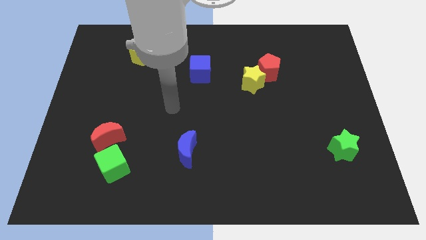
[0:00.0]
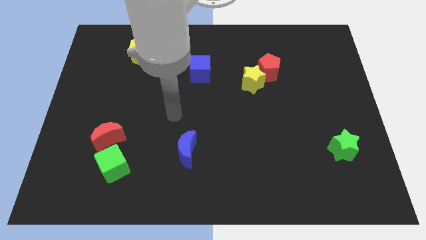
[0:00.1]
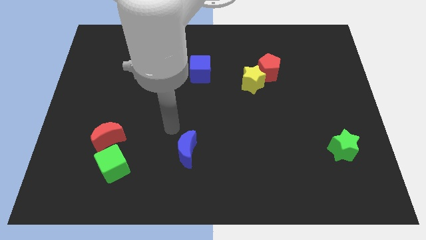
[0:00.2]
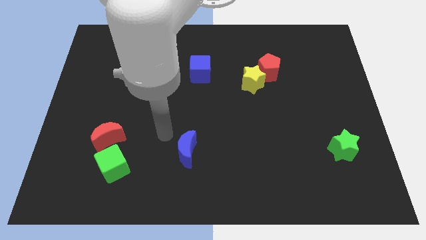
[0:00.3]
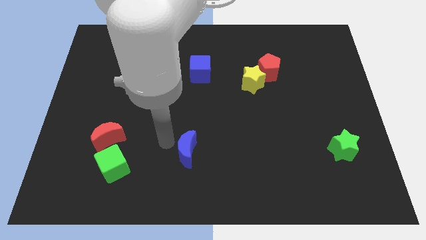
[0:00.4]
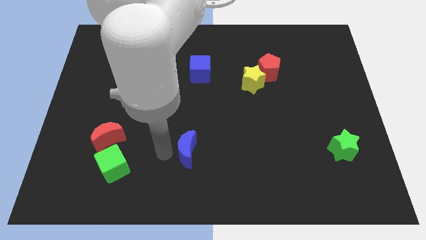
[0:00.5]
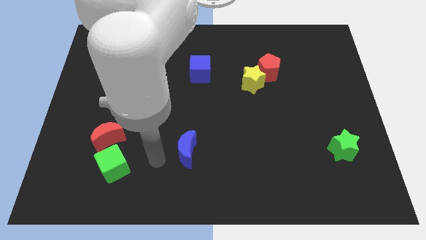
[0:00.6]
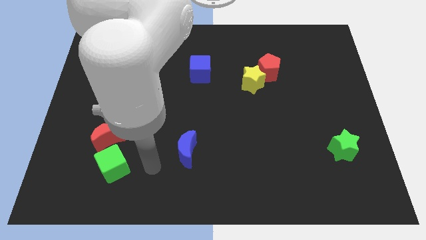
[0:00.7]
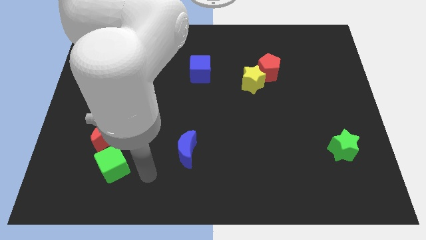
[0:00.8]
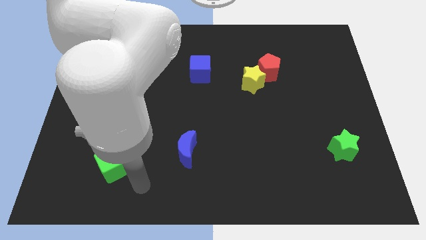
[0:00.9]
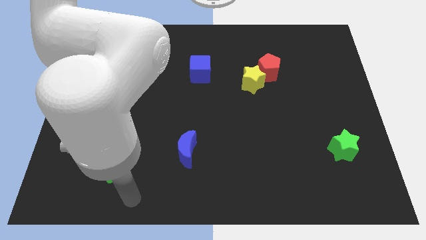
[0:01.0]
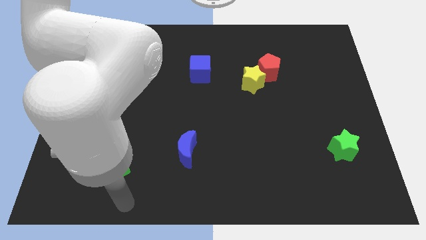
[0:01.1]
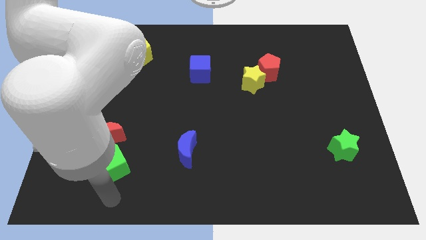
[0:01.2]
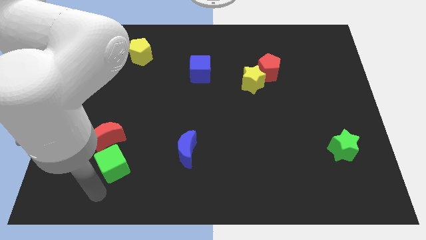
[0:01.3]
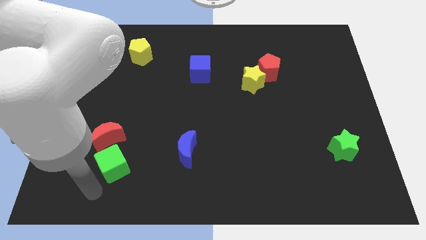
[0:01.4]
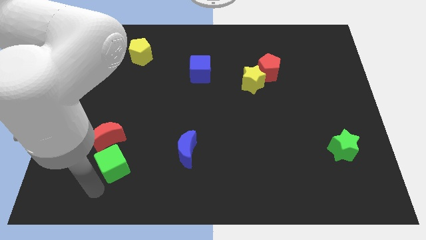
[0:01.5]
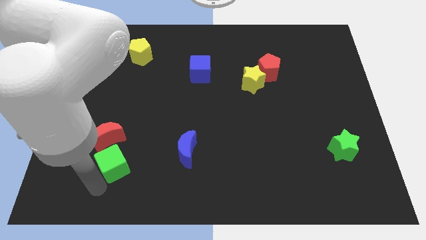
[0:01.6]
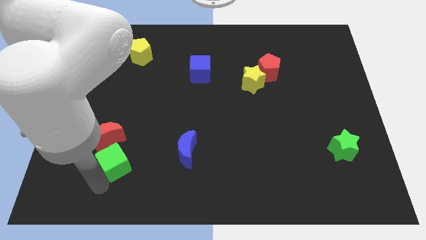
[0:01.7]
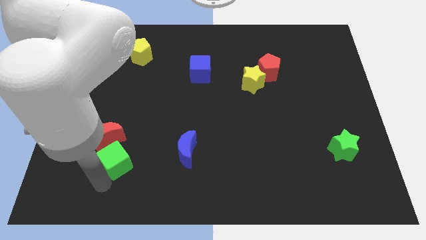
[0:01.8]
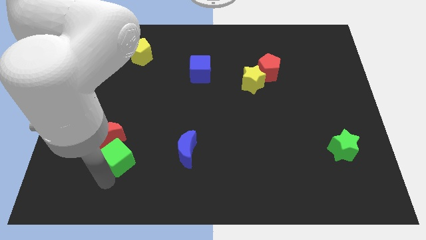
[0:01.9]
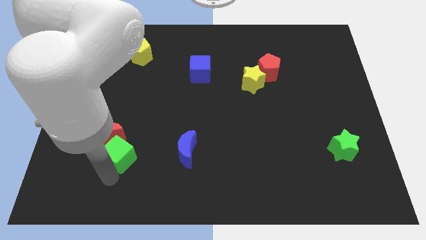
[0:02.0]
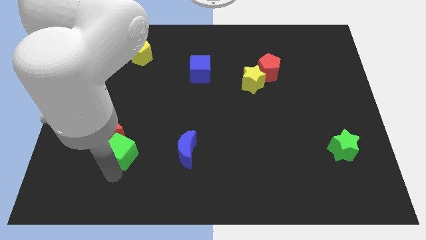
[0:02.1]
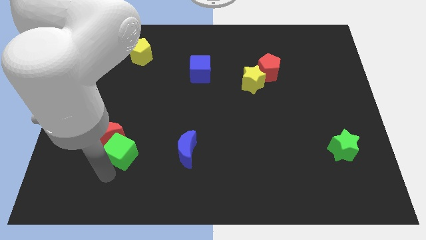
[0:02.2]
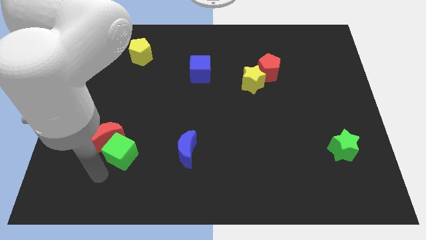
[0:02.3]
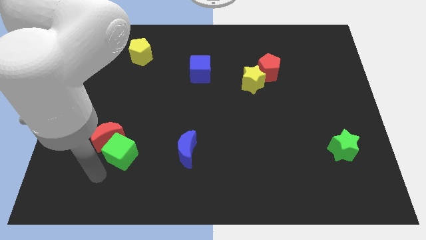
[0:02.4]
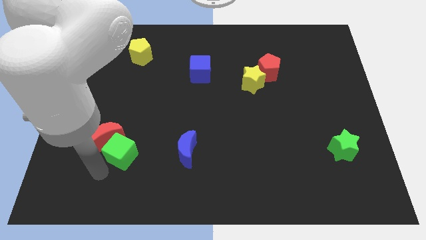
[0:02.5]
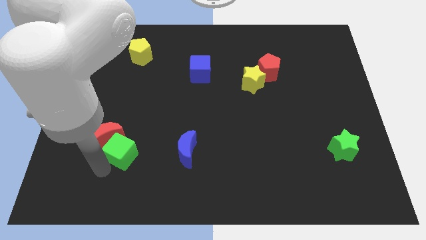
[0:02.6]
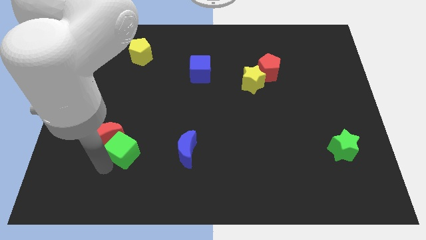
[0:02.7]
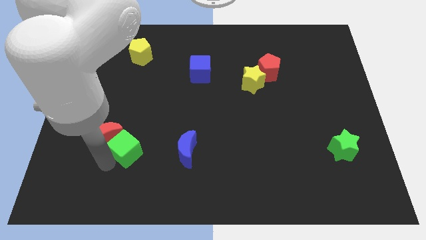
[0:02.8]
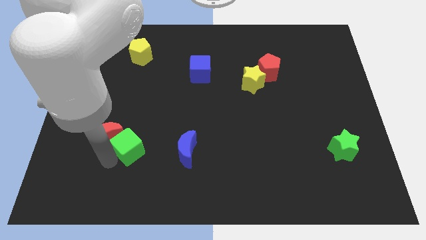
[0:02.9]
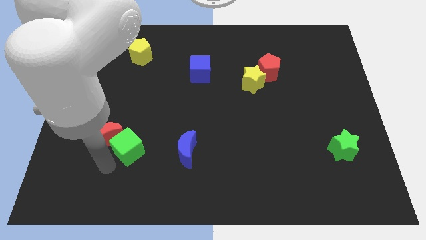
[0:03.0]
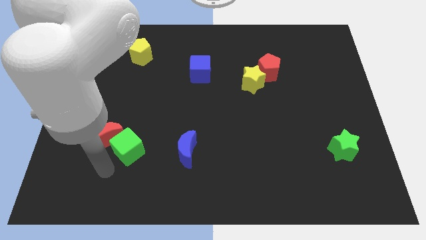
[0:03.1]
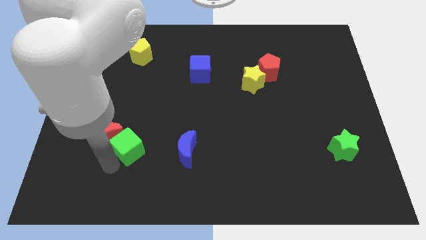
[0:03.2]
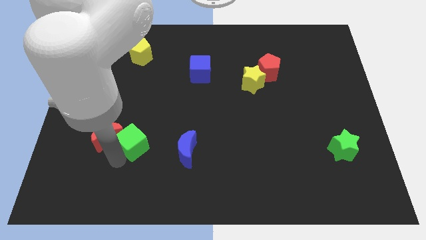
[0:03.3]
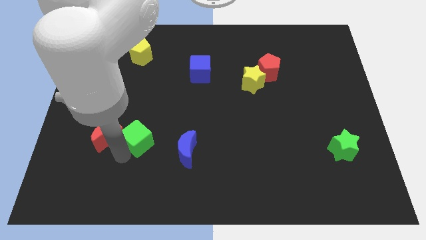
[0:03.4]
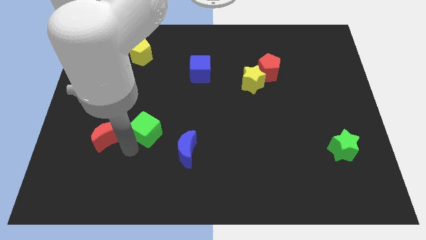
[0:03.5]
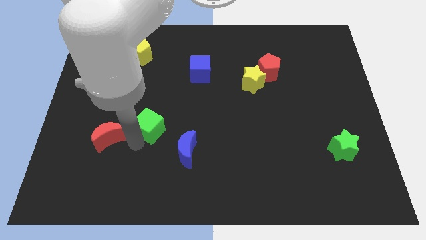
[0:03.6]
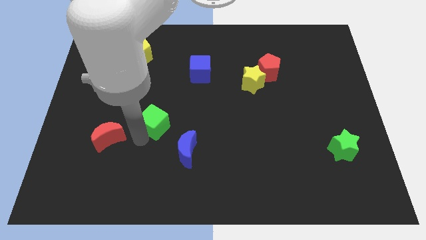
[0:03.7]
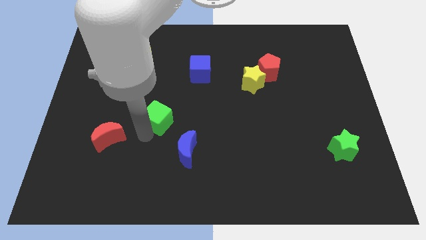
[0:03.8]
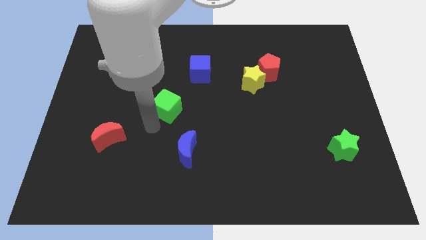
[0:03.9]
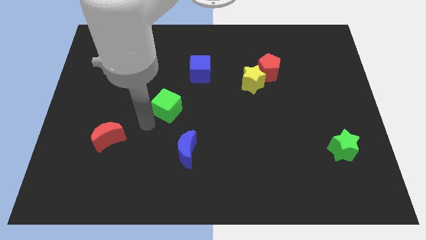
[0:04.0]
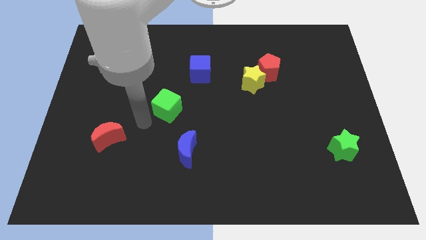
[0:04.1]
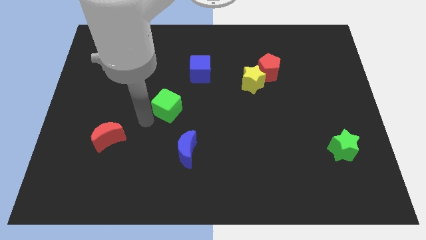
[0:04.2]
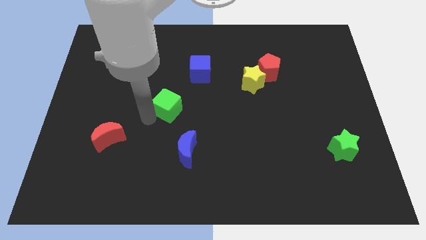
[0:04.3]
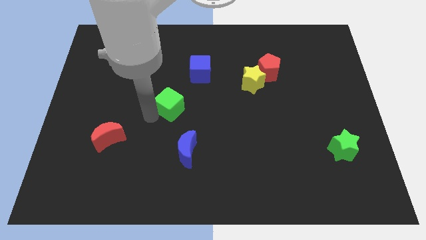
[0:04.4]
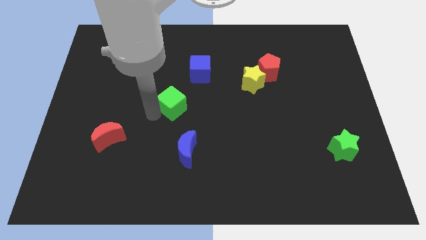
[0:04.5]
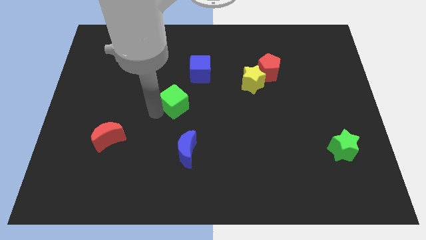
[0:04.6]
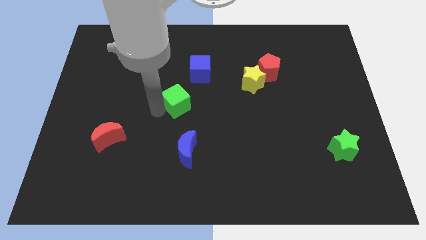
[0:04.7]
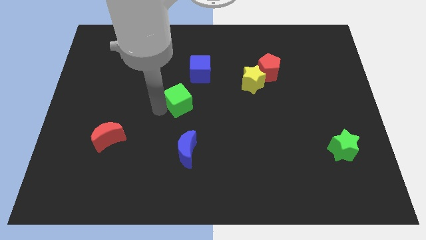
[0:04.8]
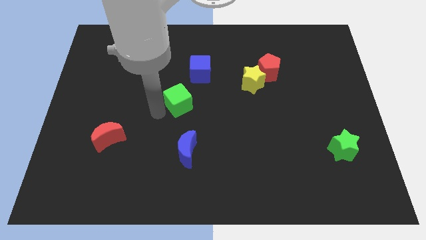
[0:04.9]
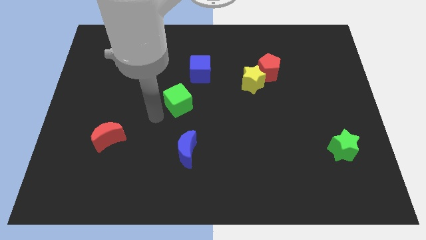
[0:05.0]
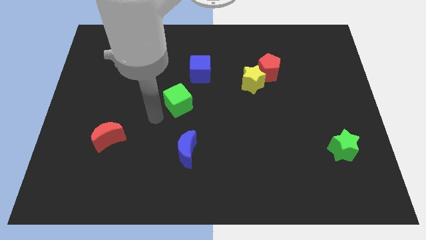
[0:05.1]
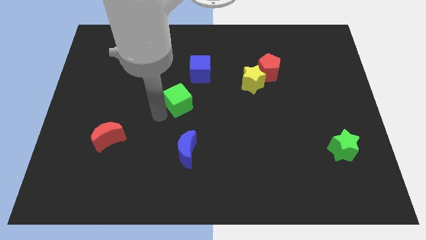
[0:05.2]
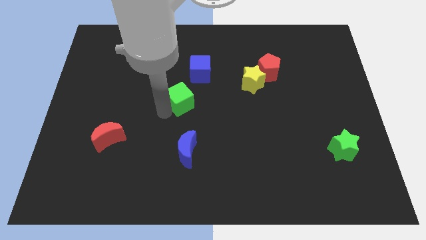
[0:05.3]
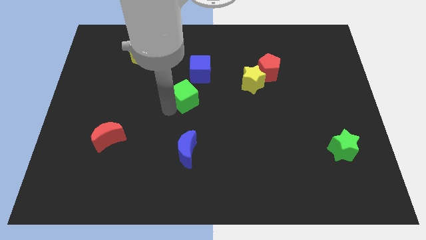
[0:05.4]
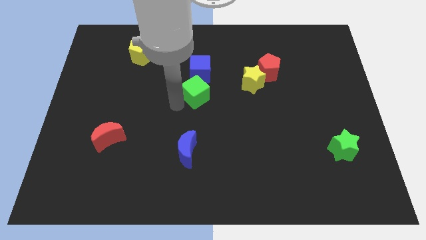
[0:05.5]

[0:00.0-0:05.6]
put the green cube to the left side of the yellow star

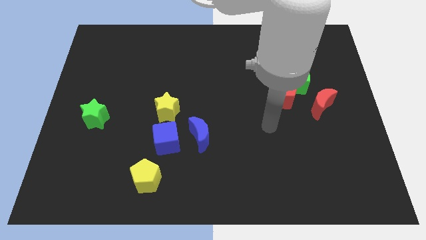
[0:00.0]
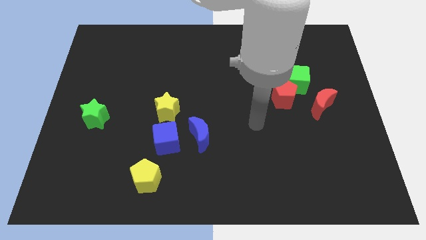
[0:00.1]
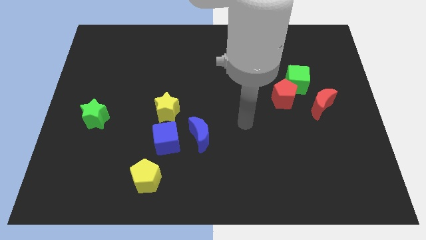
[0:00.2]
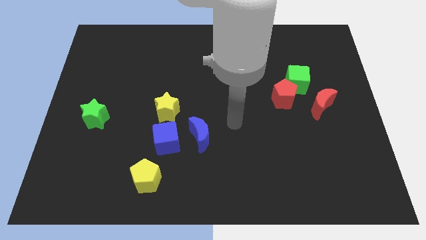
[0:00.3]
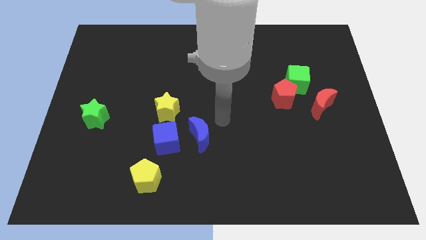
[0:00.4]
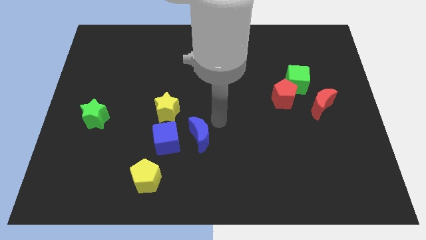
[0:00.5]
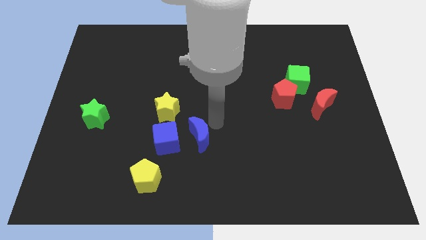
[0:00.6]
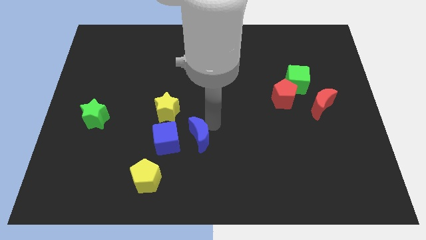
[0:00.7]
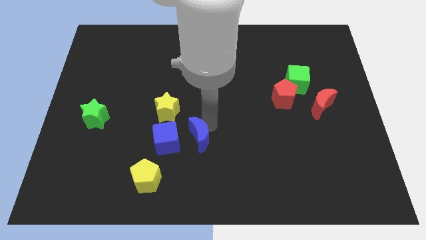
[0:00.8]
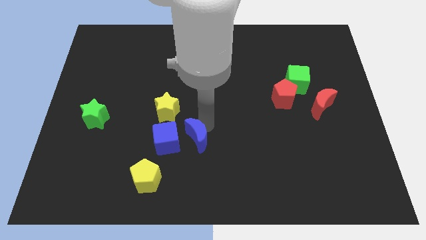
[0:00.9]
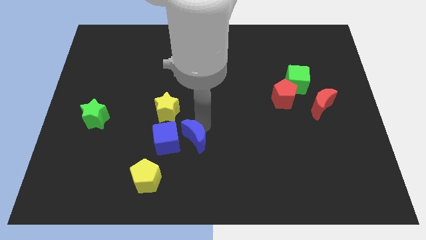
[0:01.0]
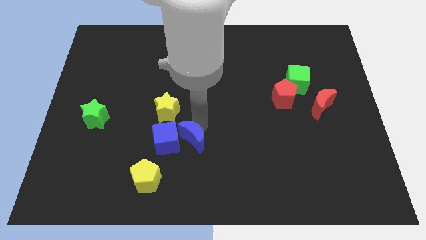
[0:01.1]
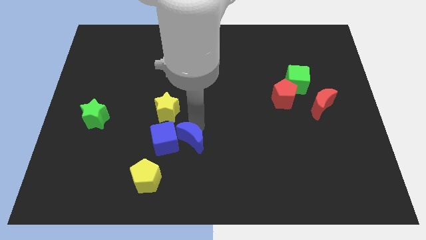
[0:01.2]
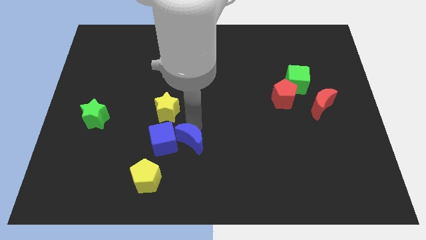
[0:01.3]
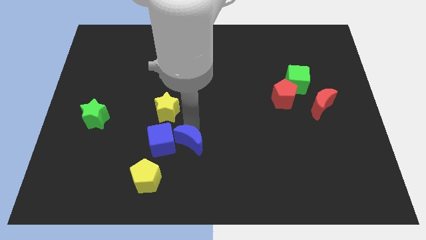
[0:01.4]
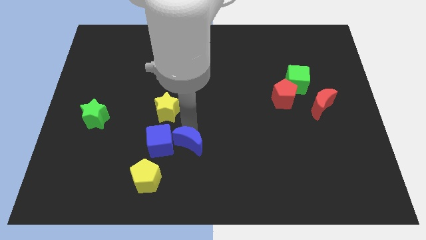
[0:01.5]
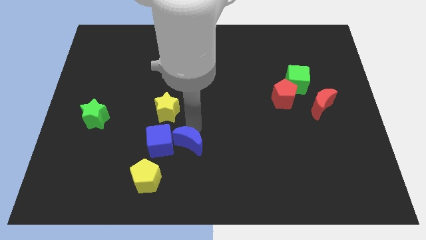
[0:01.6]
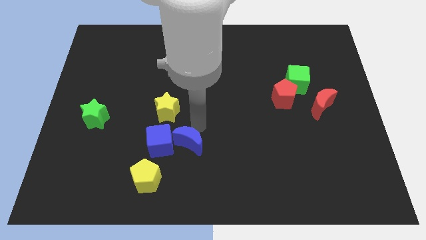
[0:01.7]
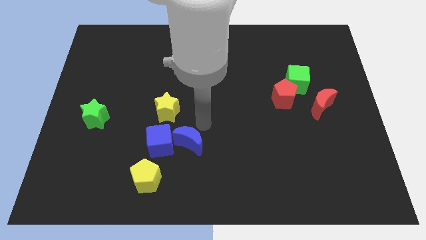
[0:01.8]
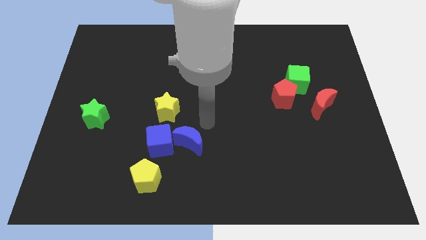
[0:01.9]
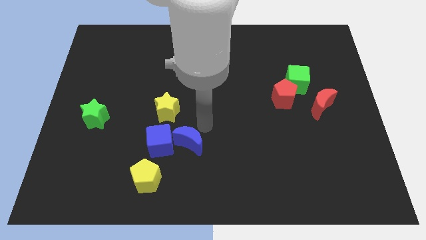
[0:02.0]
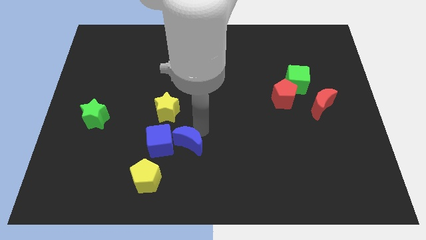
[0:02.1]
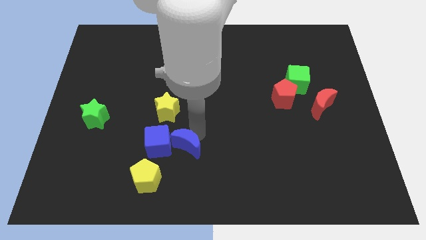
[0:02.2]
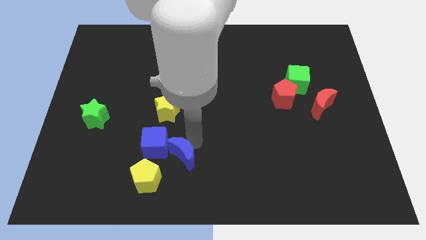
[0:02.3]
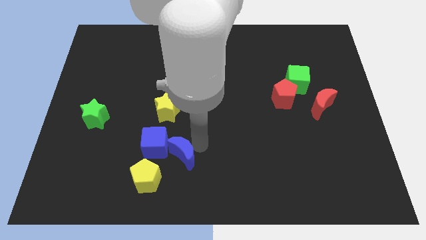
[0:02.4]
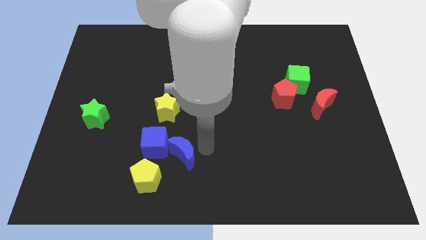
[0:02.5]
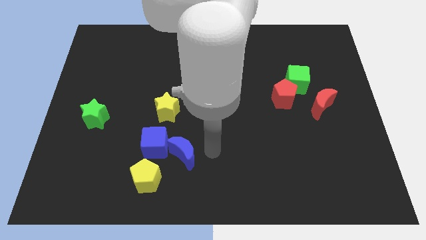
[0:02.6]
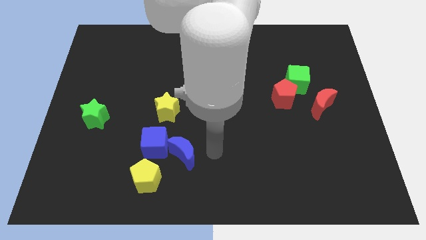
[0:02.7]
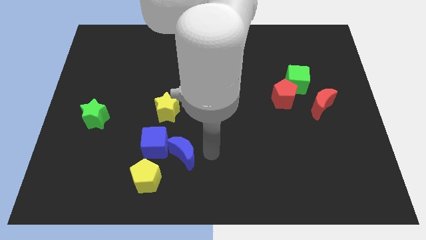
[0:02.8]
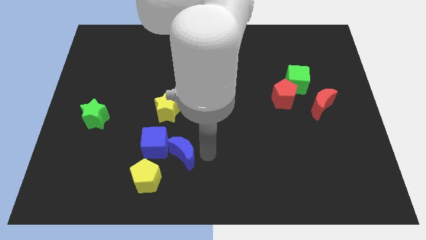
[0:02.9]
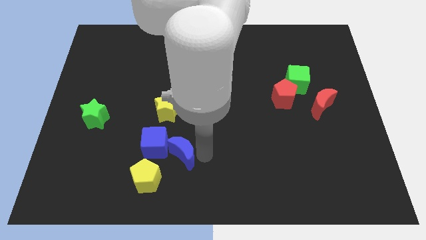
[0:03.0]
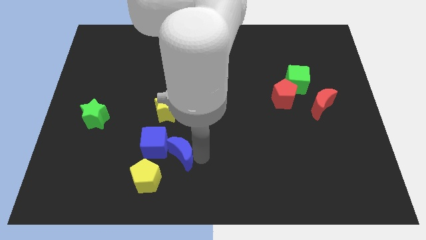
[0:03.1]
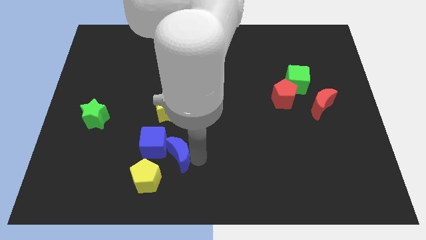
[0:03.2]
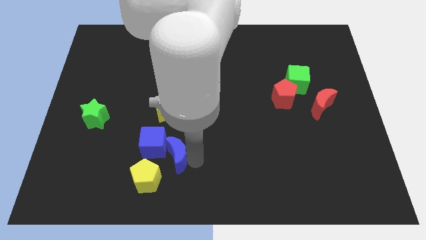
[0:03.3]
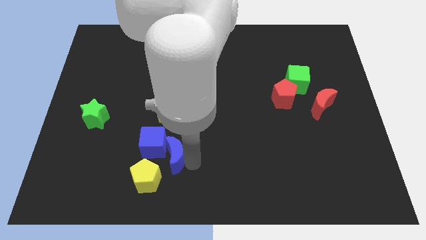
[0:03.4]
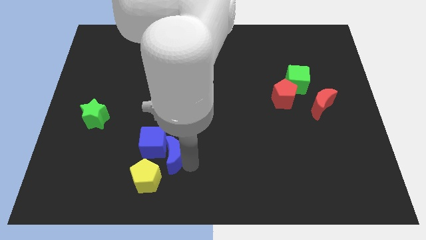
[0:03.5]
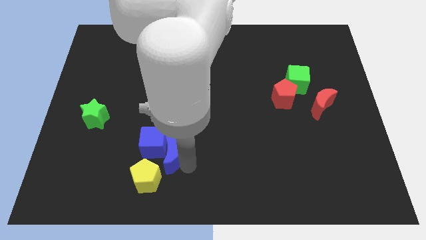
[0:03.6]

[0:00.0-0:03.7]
push the blue moon to the top of the yellow pentagon
